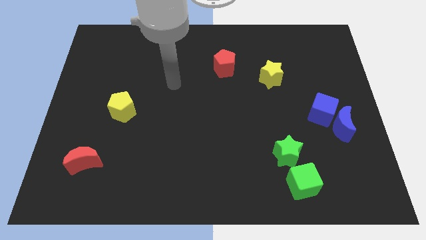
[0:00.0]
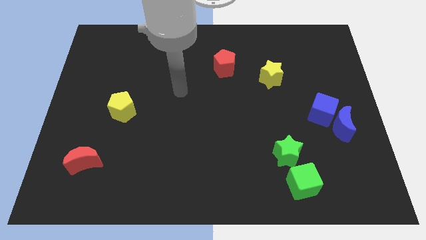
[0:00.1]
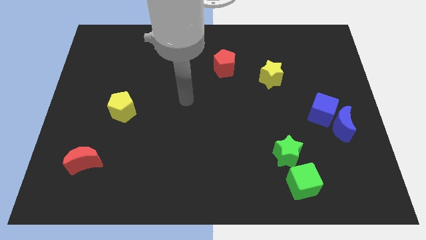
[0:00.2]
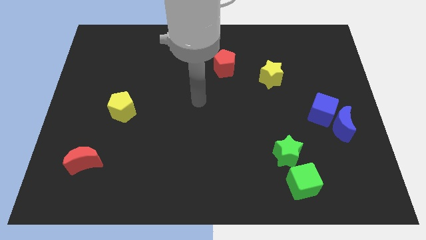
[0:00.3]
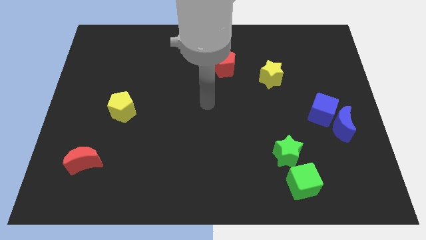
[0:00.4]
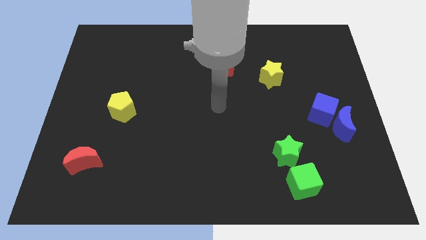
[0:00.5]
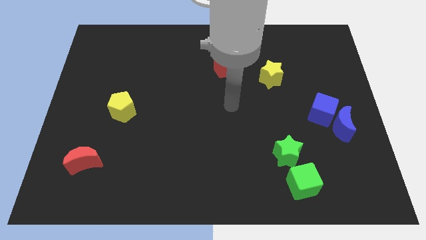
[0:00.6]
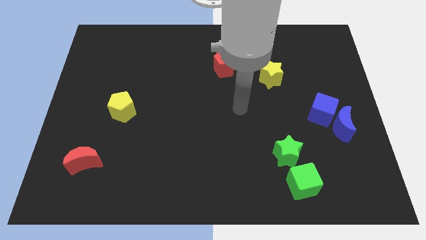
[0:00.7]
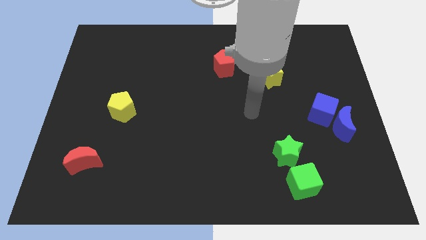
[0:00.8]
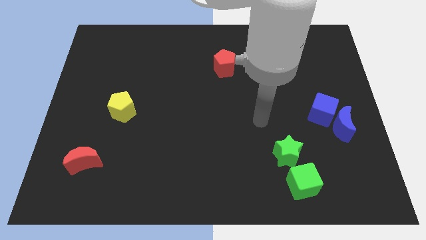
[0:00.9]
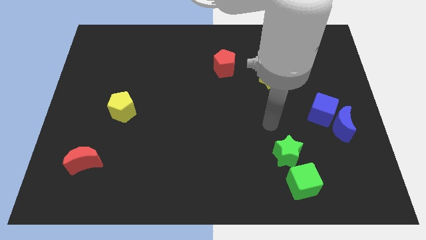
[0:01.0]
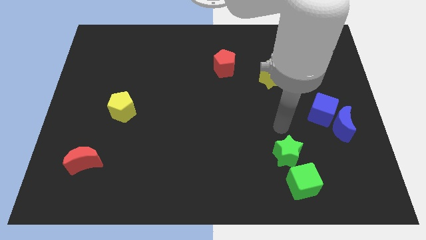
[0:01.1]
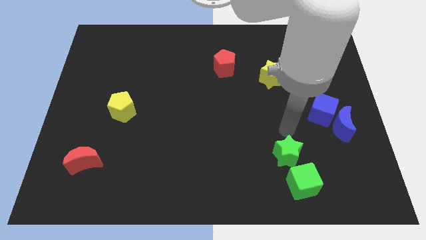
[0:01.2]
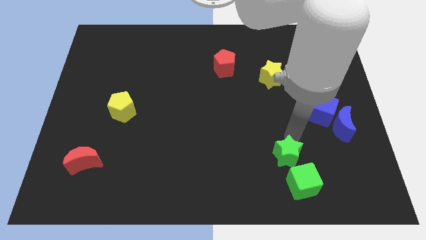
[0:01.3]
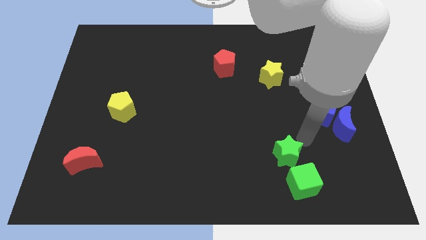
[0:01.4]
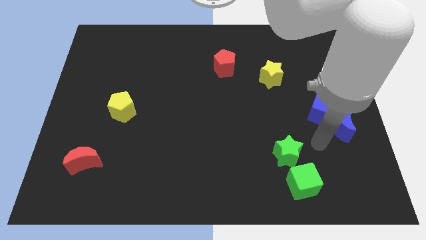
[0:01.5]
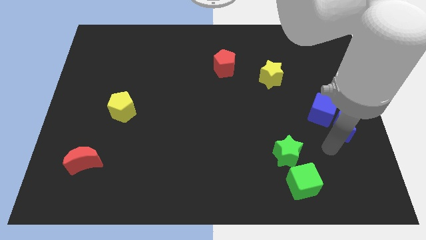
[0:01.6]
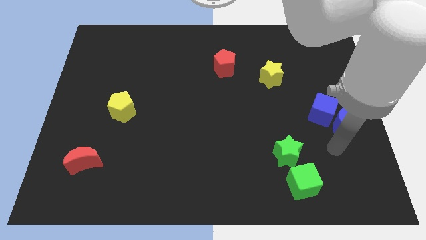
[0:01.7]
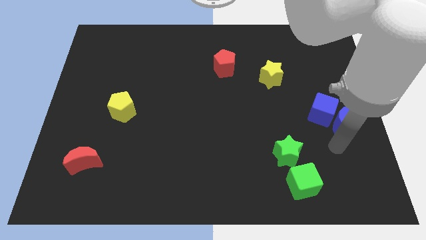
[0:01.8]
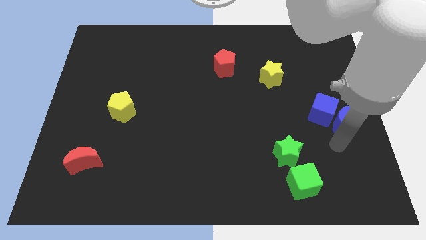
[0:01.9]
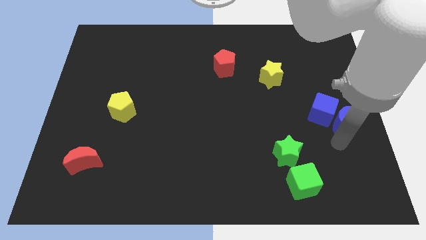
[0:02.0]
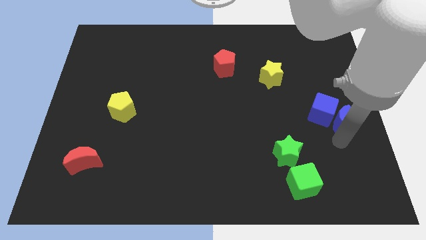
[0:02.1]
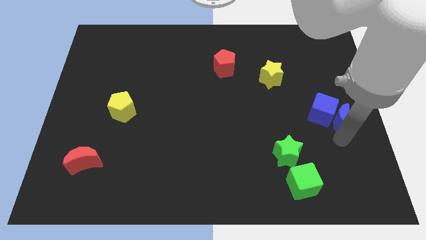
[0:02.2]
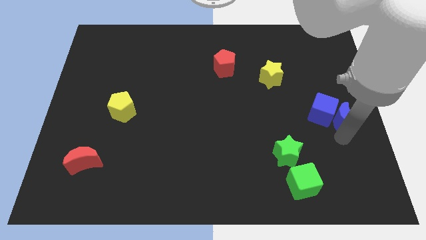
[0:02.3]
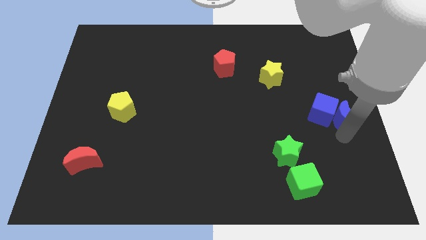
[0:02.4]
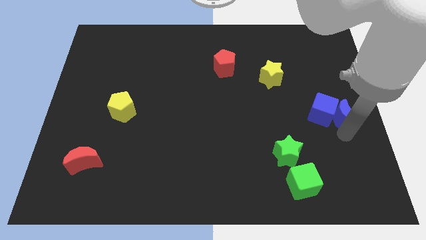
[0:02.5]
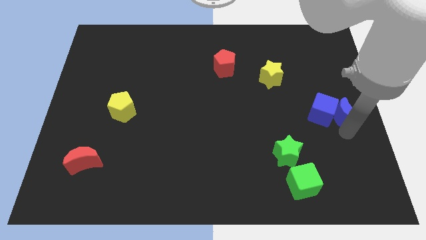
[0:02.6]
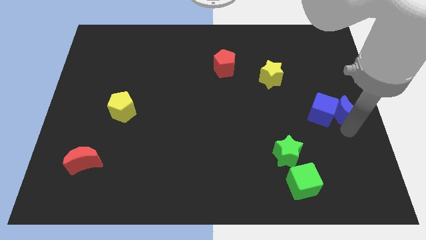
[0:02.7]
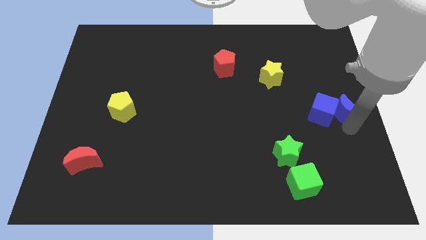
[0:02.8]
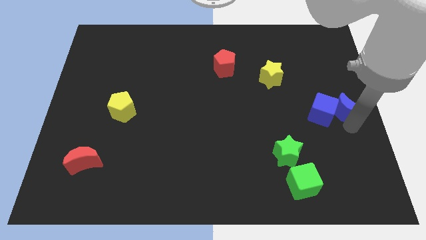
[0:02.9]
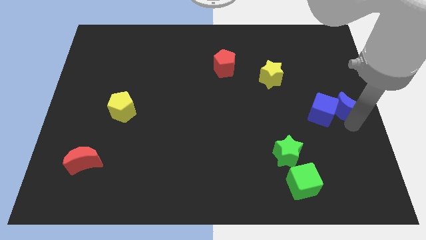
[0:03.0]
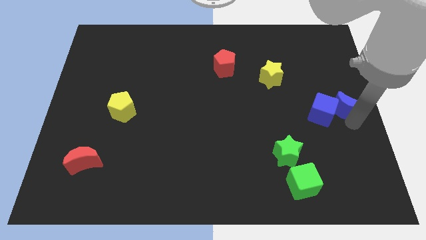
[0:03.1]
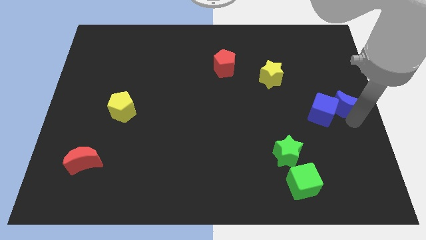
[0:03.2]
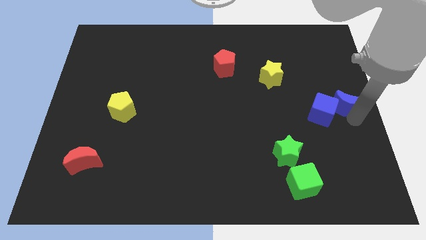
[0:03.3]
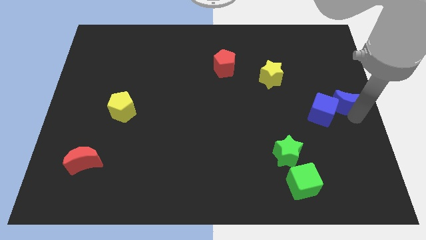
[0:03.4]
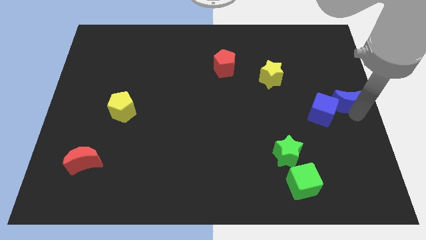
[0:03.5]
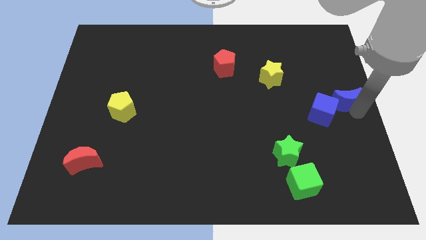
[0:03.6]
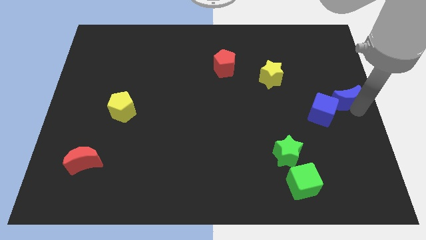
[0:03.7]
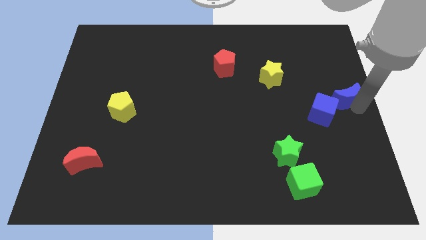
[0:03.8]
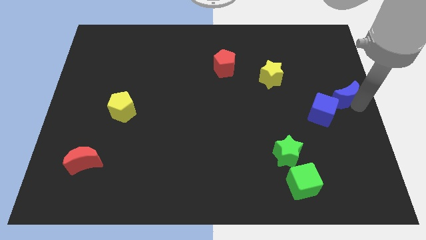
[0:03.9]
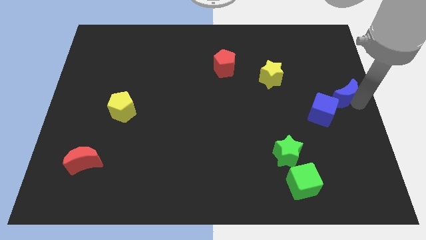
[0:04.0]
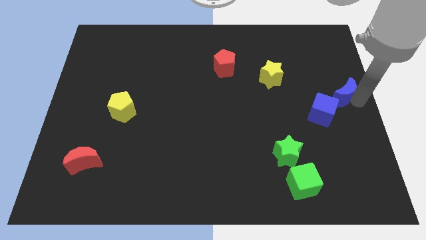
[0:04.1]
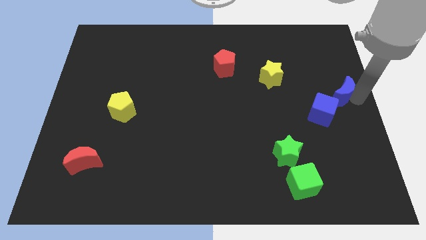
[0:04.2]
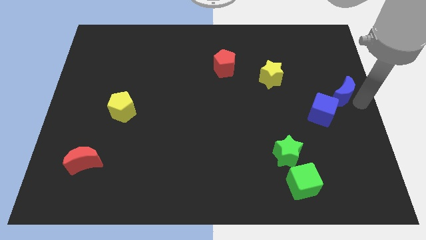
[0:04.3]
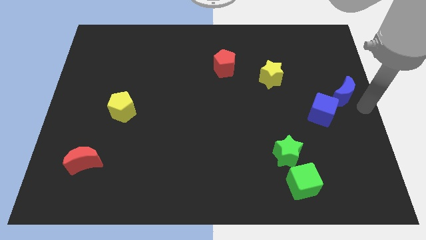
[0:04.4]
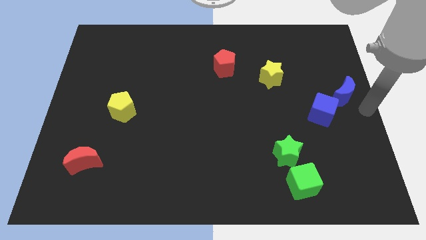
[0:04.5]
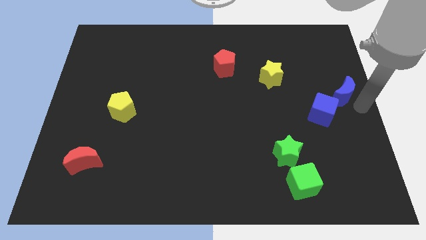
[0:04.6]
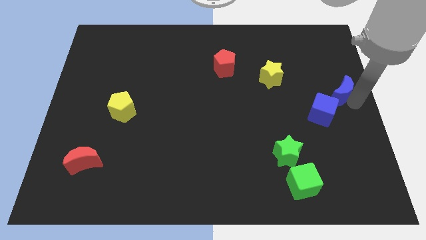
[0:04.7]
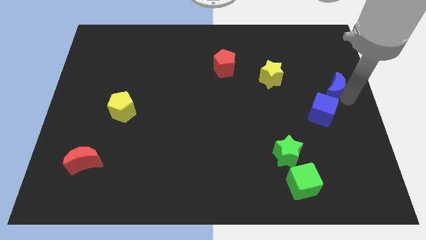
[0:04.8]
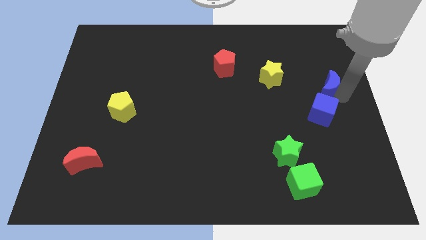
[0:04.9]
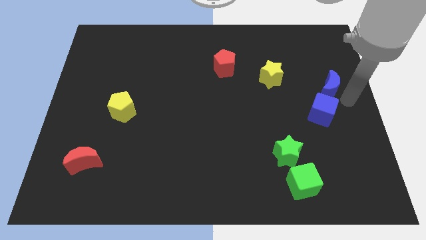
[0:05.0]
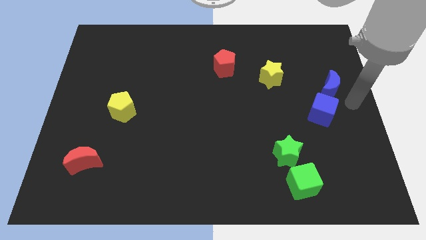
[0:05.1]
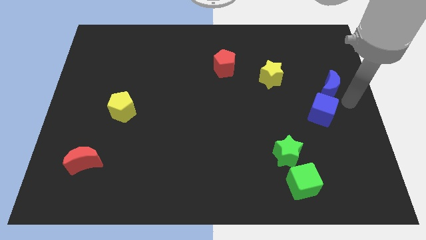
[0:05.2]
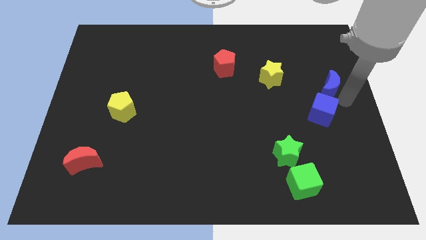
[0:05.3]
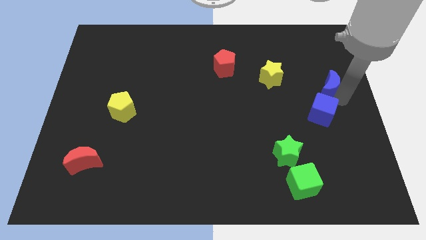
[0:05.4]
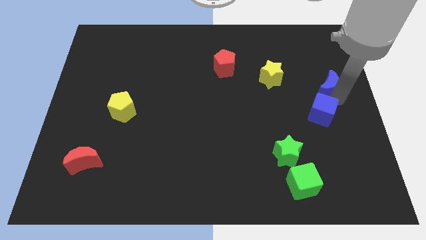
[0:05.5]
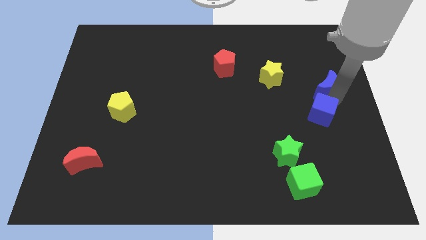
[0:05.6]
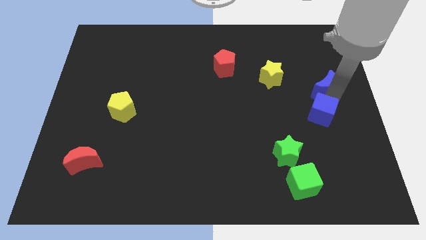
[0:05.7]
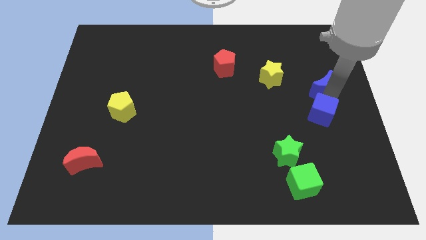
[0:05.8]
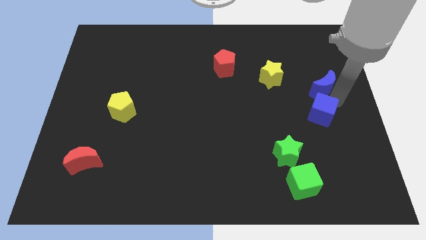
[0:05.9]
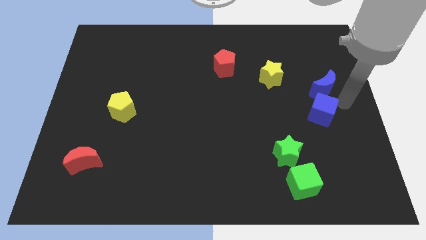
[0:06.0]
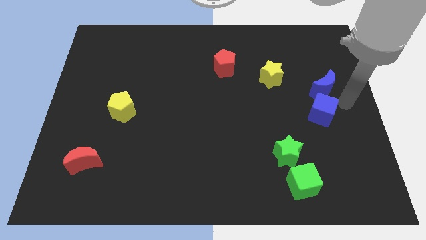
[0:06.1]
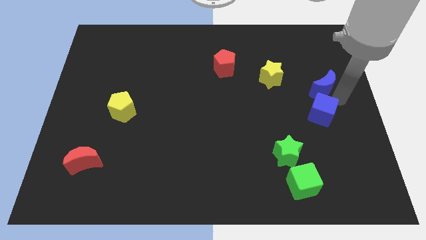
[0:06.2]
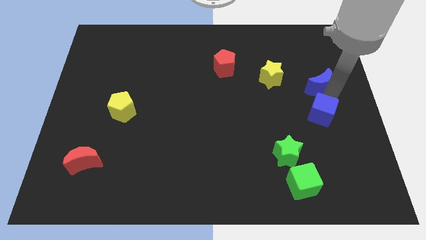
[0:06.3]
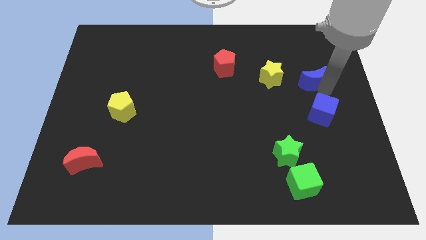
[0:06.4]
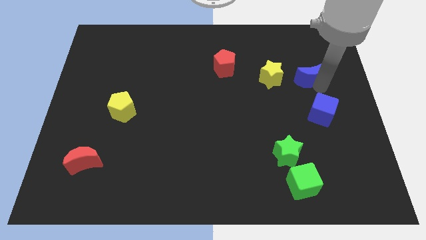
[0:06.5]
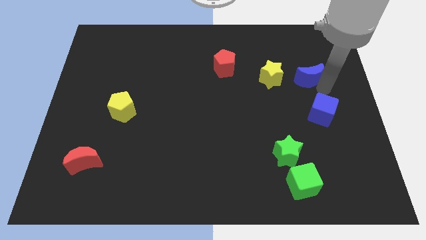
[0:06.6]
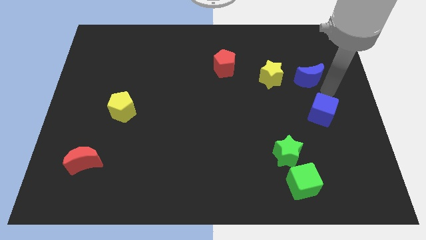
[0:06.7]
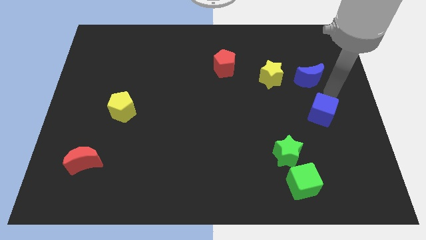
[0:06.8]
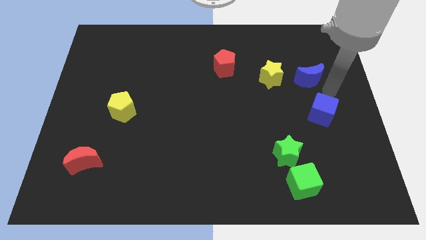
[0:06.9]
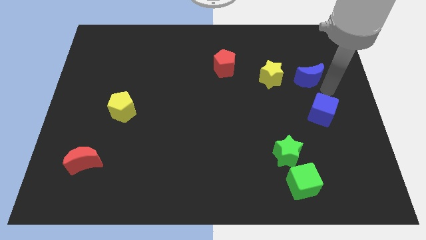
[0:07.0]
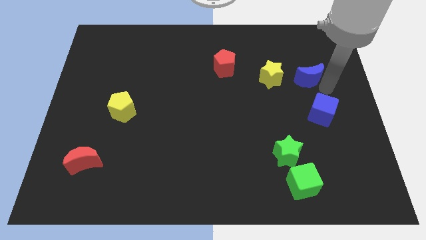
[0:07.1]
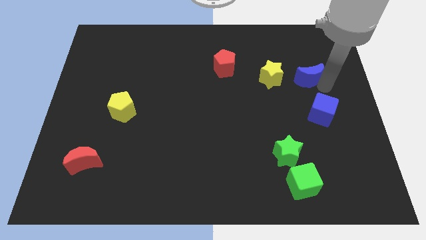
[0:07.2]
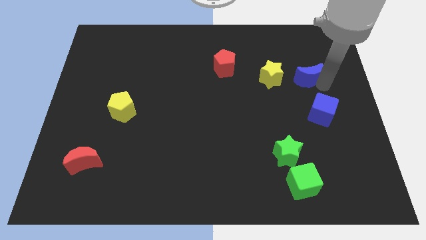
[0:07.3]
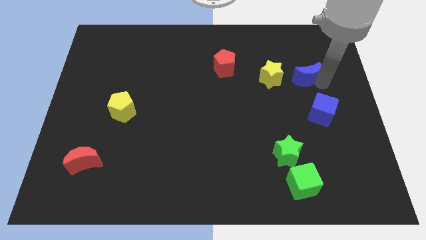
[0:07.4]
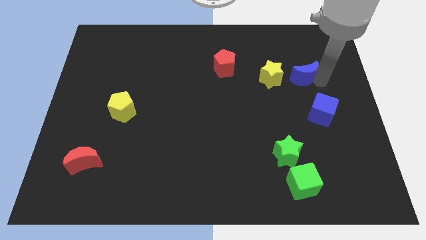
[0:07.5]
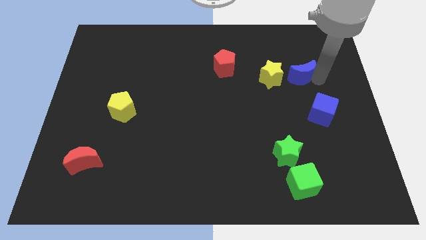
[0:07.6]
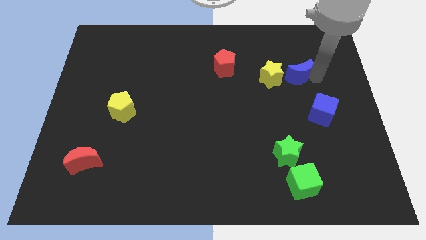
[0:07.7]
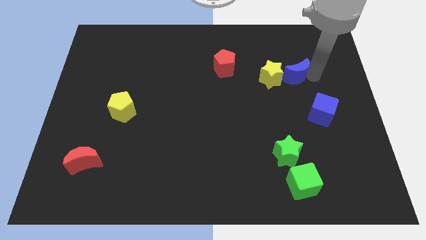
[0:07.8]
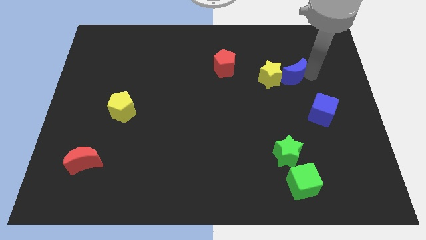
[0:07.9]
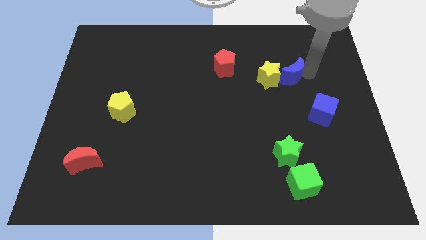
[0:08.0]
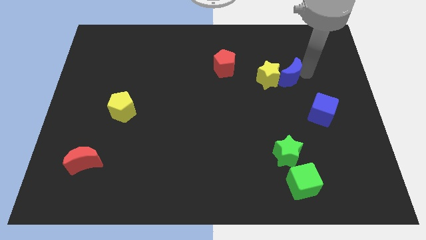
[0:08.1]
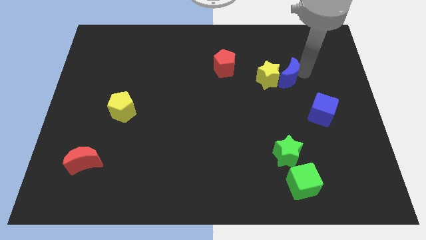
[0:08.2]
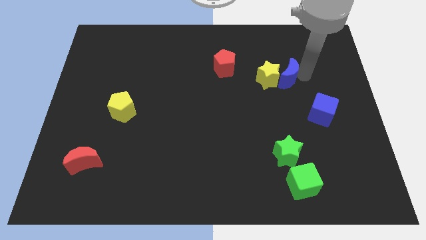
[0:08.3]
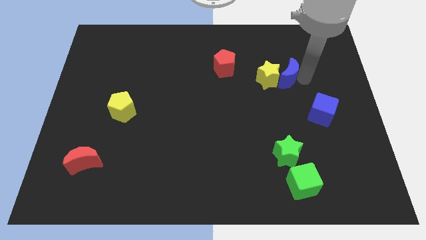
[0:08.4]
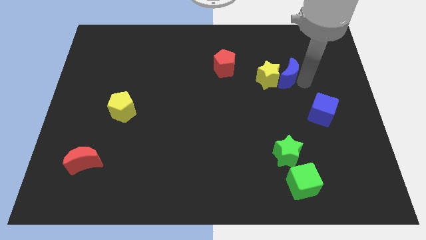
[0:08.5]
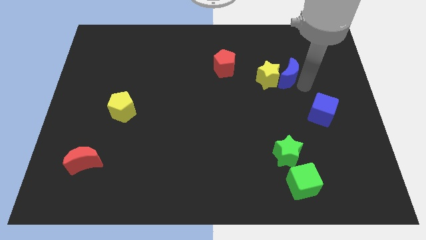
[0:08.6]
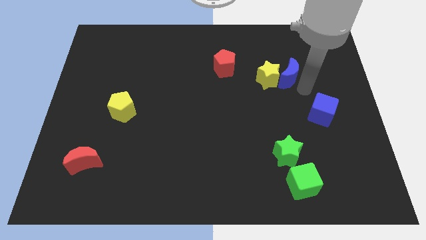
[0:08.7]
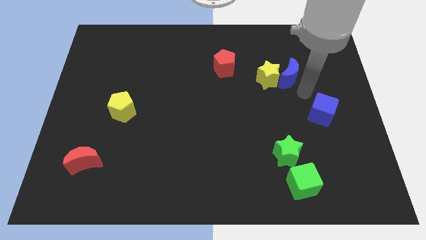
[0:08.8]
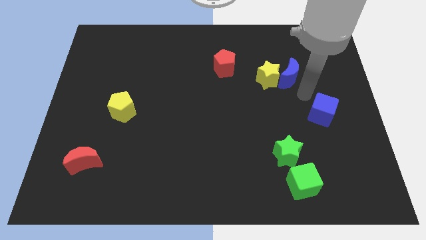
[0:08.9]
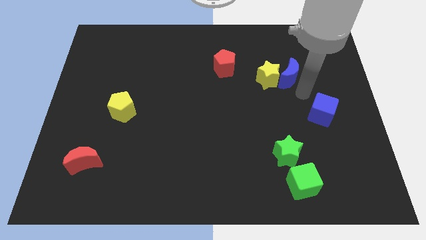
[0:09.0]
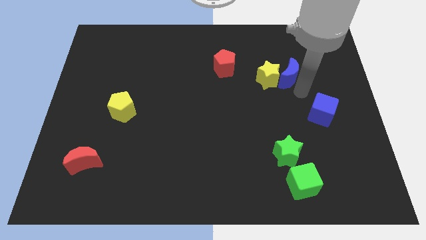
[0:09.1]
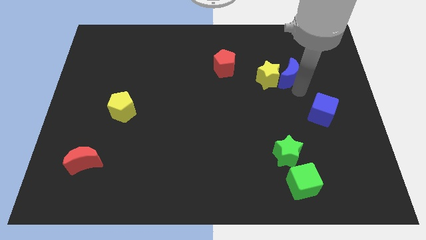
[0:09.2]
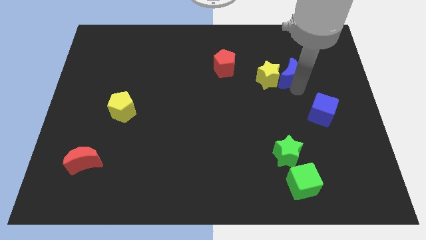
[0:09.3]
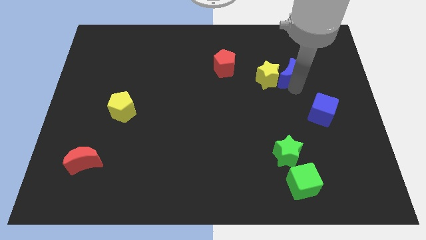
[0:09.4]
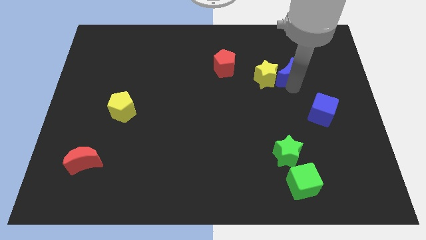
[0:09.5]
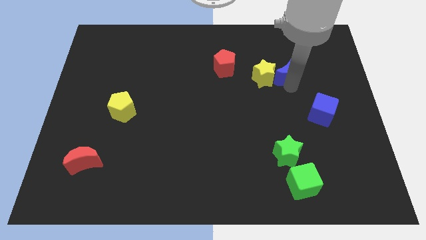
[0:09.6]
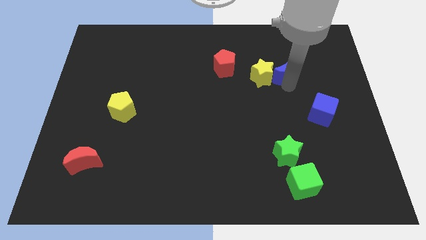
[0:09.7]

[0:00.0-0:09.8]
put the blue moon to the right side of the red pentagon
